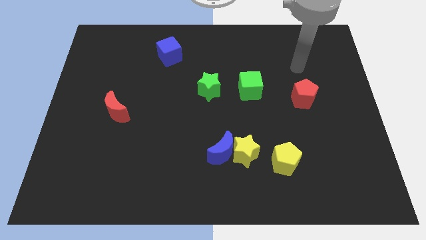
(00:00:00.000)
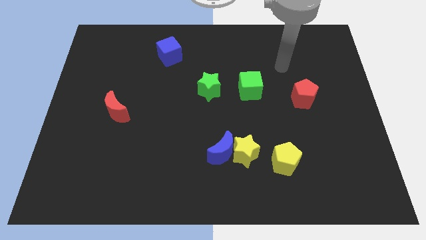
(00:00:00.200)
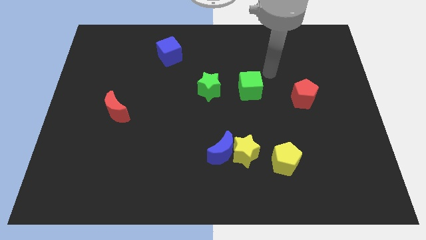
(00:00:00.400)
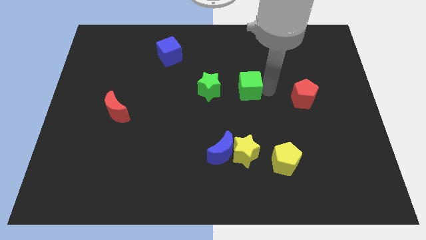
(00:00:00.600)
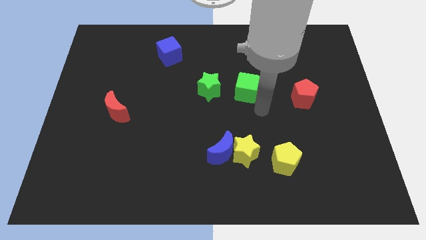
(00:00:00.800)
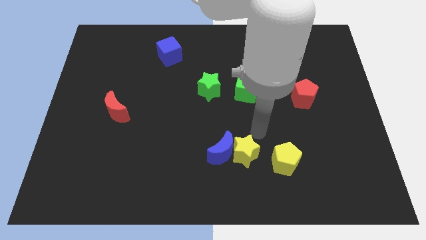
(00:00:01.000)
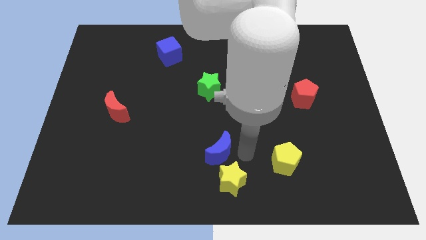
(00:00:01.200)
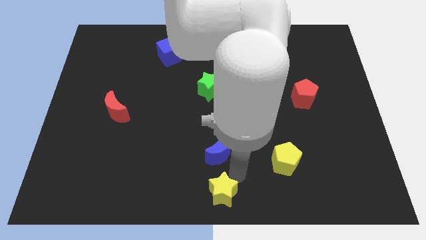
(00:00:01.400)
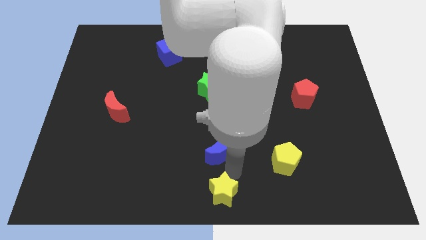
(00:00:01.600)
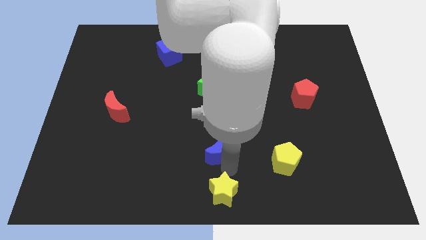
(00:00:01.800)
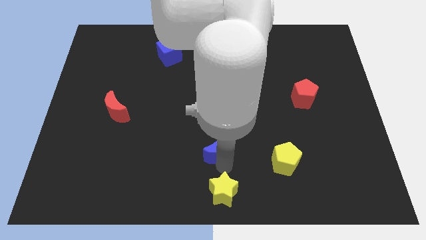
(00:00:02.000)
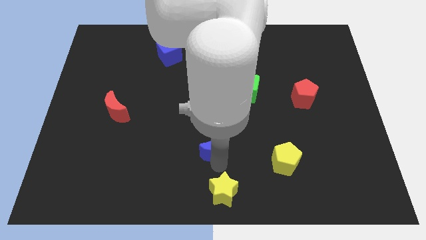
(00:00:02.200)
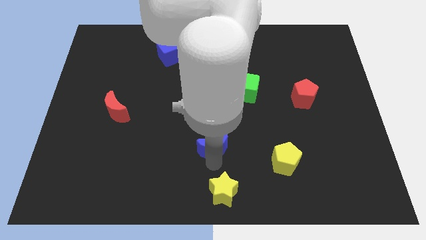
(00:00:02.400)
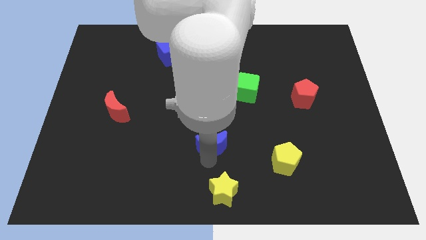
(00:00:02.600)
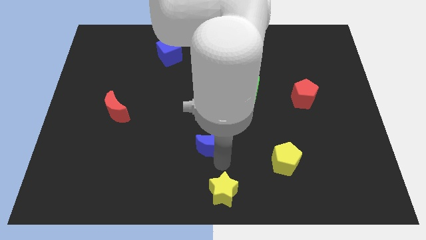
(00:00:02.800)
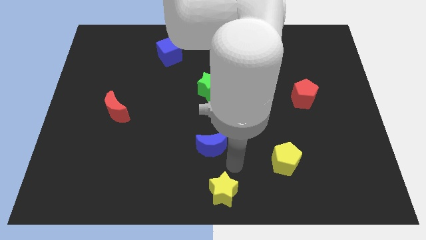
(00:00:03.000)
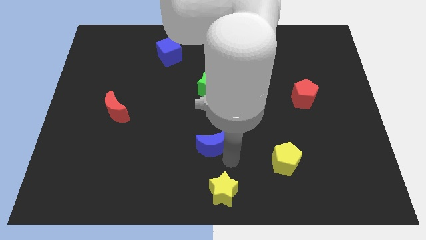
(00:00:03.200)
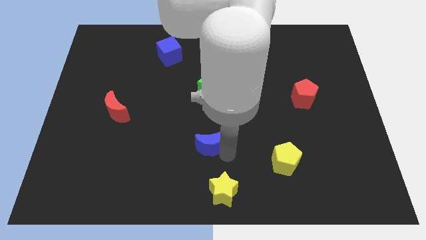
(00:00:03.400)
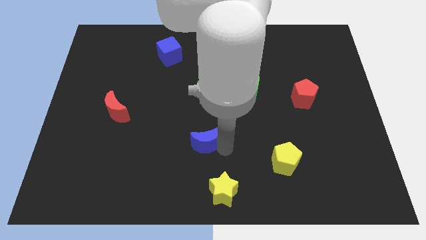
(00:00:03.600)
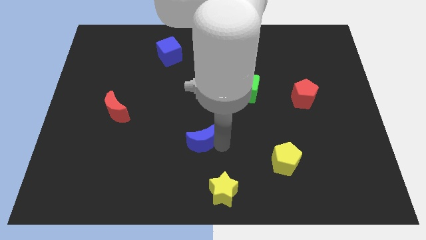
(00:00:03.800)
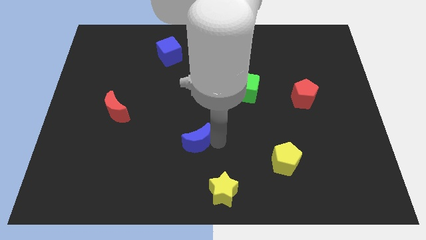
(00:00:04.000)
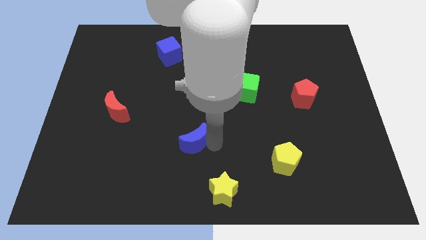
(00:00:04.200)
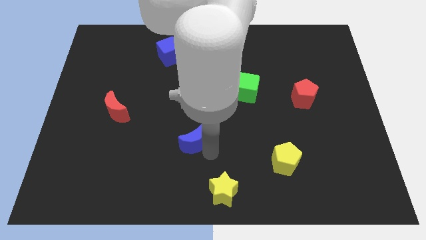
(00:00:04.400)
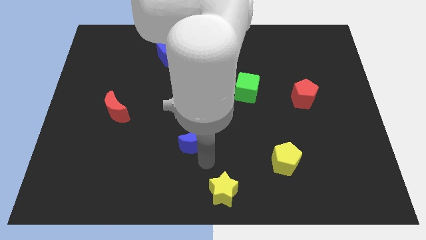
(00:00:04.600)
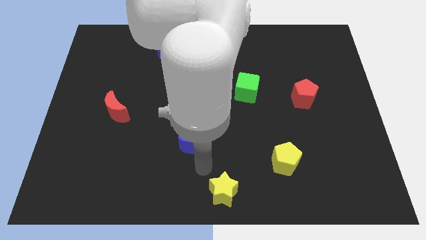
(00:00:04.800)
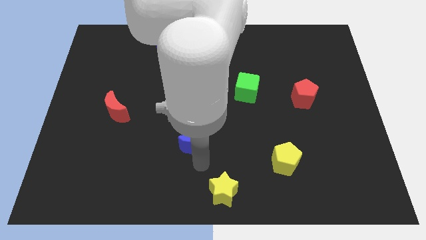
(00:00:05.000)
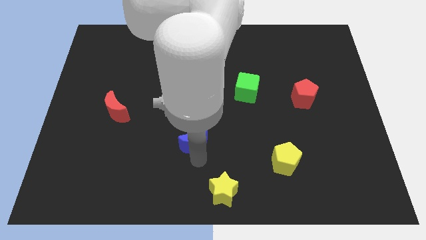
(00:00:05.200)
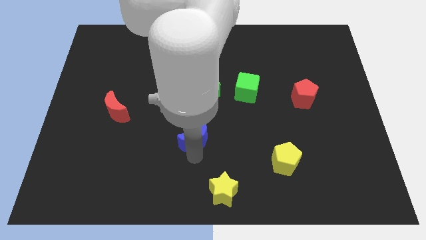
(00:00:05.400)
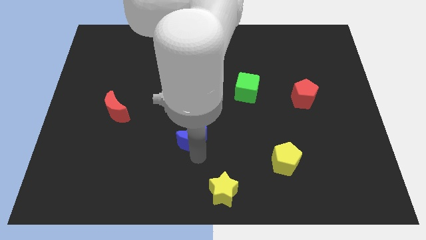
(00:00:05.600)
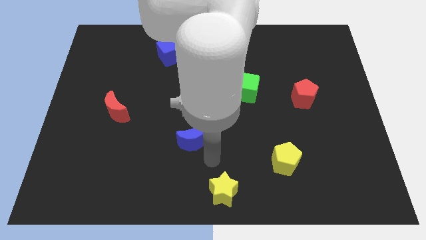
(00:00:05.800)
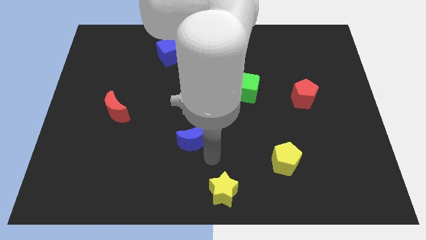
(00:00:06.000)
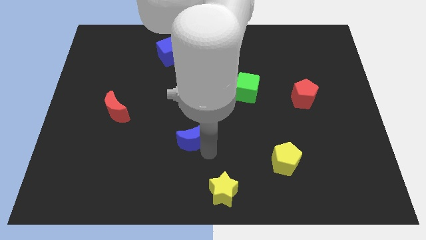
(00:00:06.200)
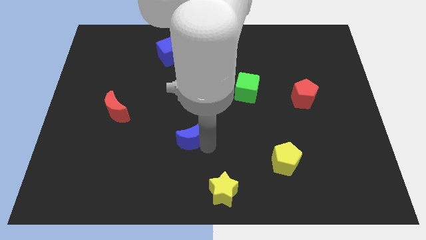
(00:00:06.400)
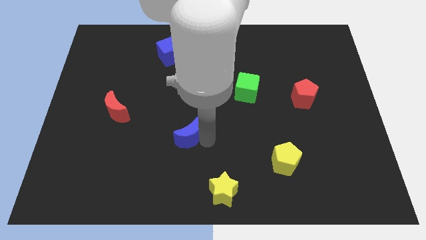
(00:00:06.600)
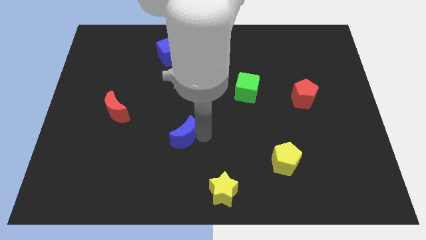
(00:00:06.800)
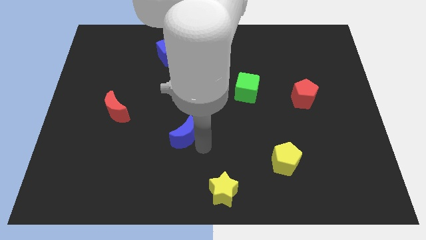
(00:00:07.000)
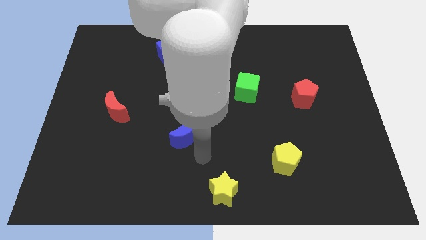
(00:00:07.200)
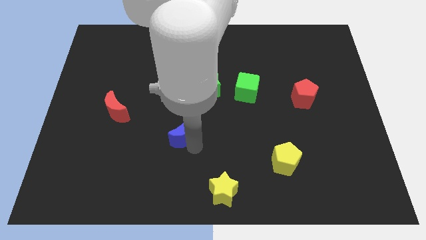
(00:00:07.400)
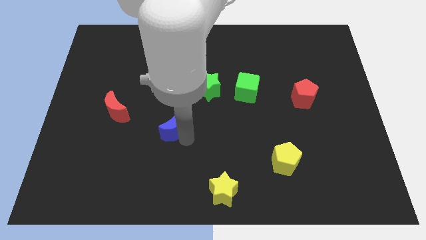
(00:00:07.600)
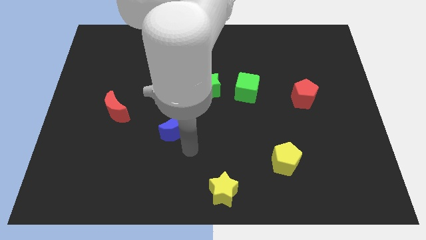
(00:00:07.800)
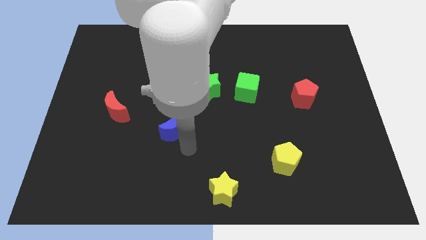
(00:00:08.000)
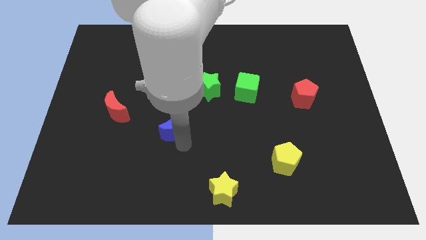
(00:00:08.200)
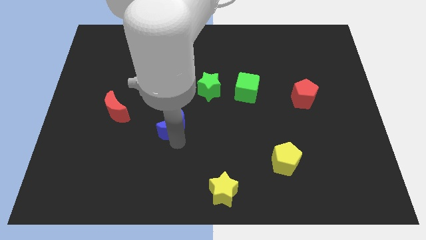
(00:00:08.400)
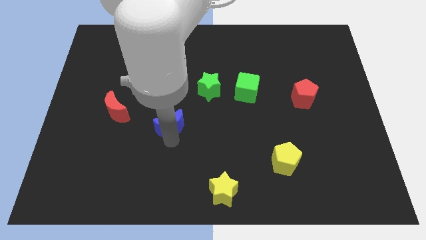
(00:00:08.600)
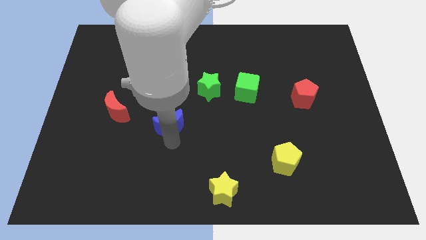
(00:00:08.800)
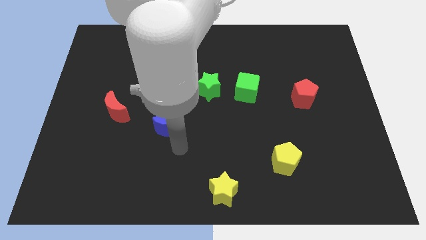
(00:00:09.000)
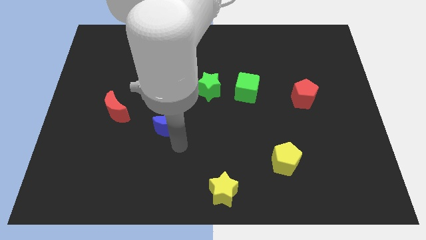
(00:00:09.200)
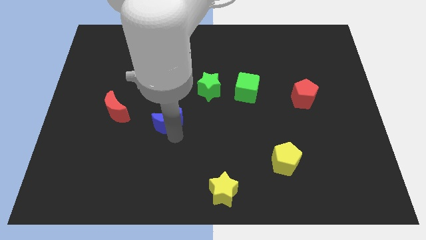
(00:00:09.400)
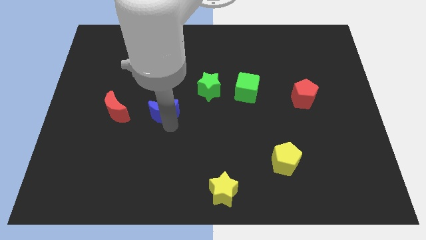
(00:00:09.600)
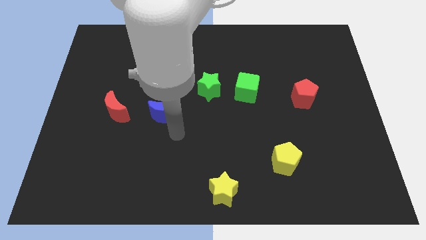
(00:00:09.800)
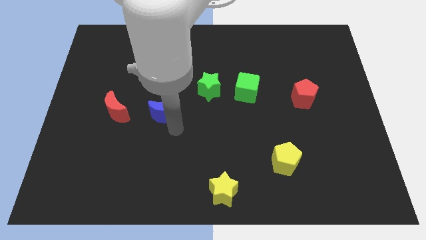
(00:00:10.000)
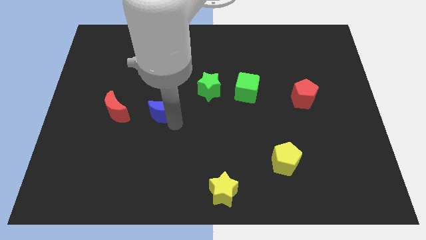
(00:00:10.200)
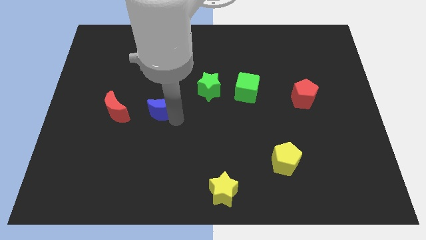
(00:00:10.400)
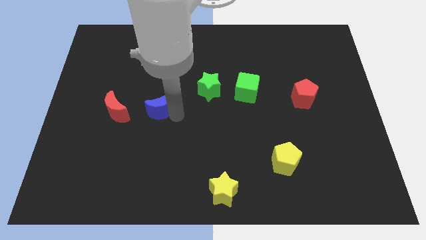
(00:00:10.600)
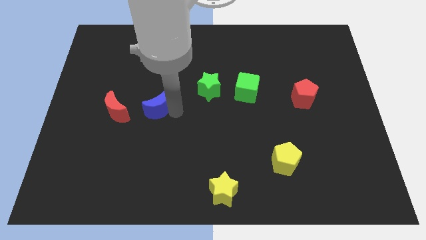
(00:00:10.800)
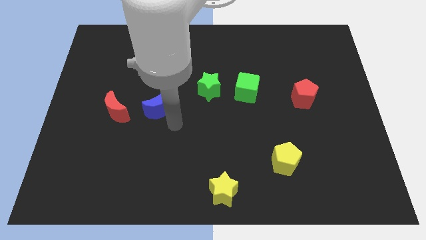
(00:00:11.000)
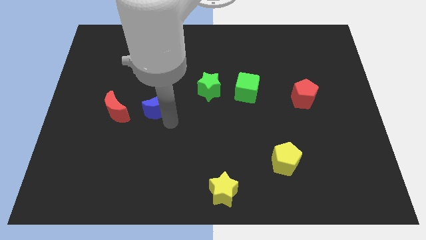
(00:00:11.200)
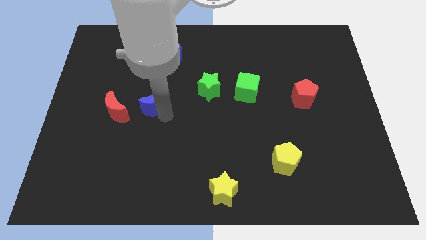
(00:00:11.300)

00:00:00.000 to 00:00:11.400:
move the blue moon upwards and to the left diagonally

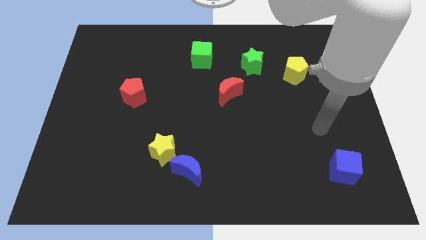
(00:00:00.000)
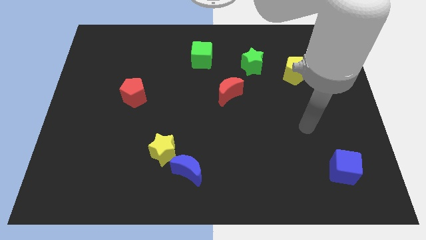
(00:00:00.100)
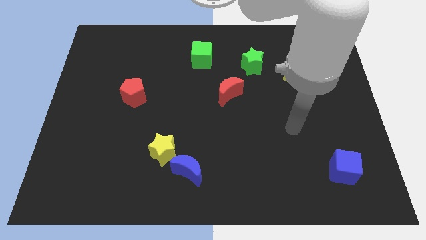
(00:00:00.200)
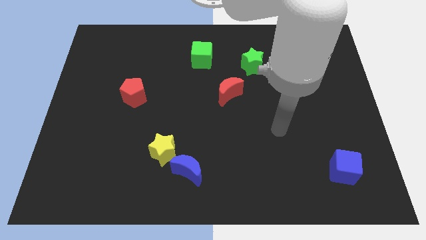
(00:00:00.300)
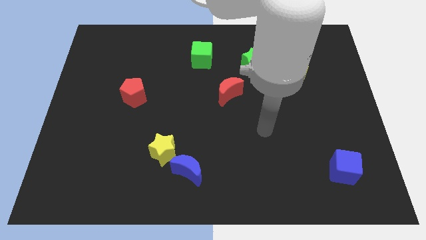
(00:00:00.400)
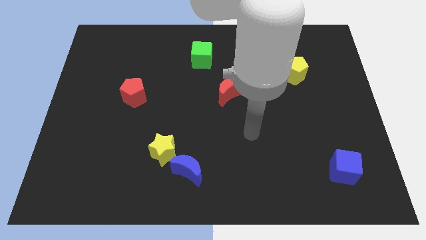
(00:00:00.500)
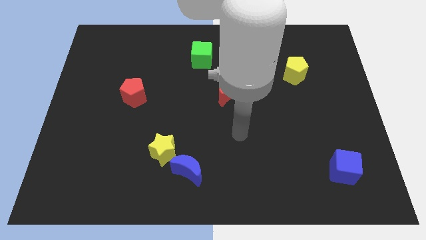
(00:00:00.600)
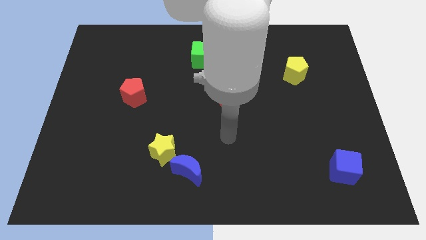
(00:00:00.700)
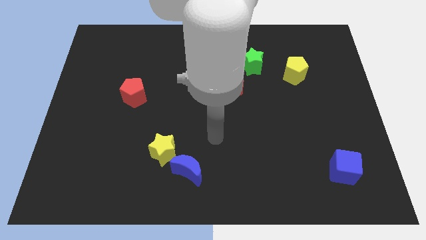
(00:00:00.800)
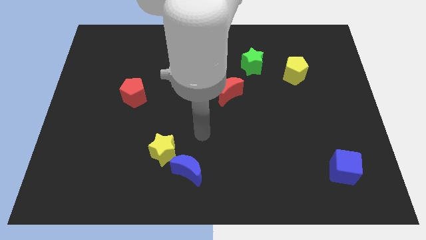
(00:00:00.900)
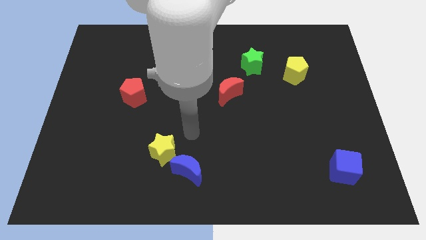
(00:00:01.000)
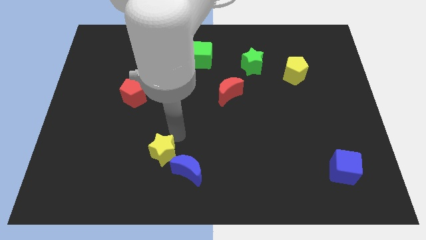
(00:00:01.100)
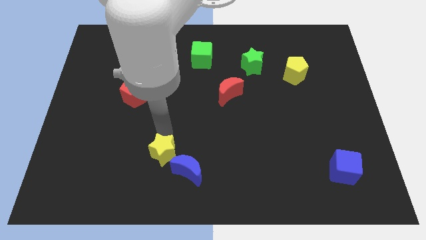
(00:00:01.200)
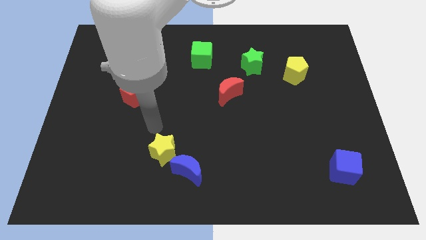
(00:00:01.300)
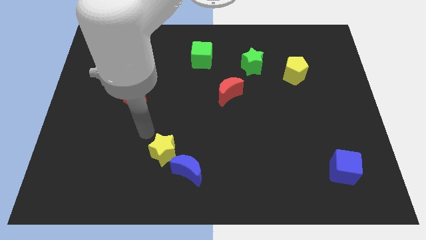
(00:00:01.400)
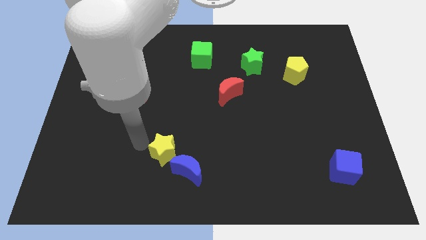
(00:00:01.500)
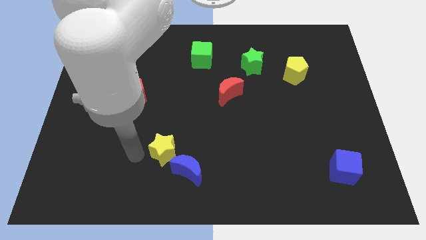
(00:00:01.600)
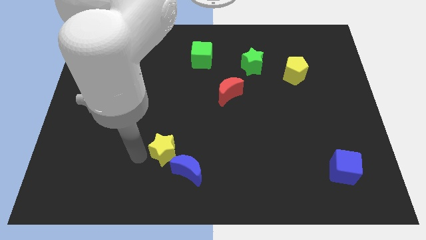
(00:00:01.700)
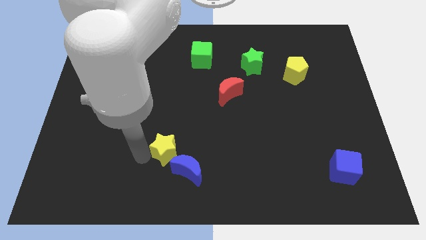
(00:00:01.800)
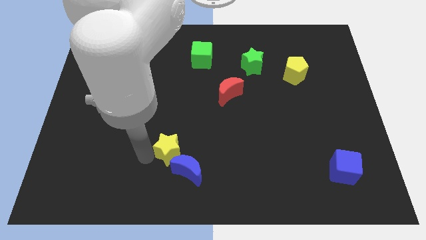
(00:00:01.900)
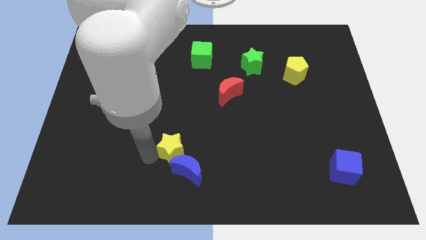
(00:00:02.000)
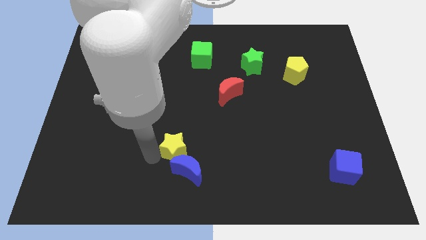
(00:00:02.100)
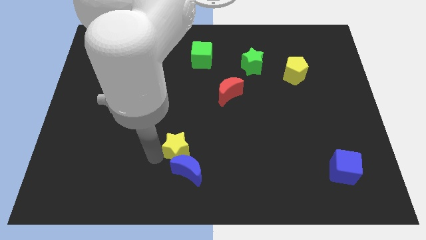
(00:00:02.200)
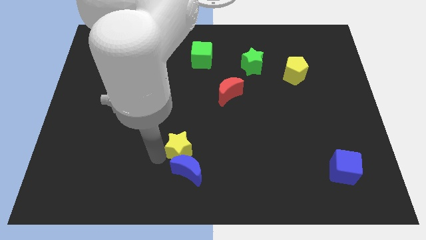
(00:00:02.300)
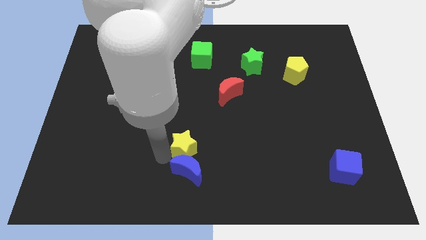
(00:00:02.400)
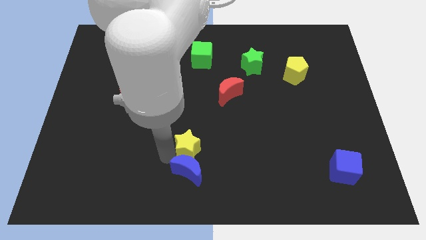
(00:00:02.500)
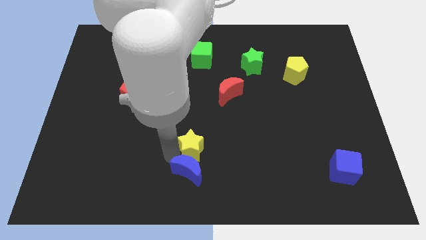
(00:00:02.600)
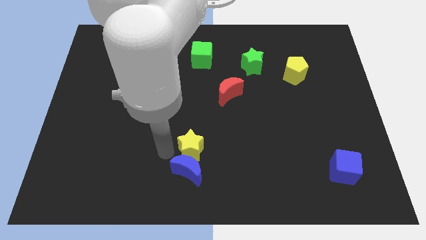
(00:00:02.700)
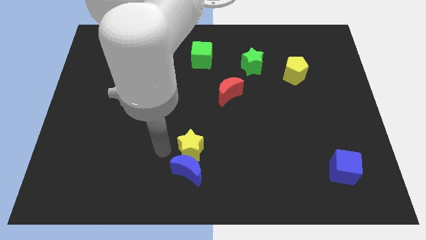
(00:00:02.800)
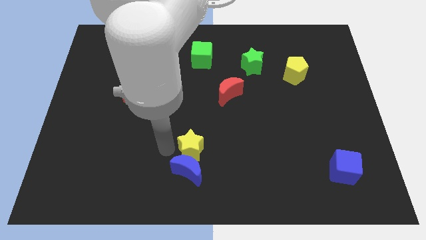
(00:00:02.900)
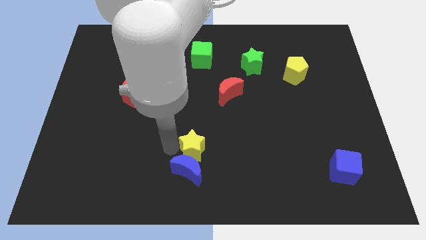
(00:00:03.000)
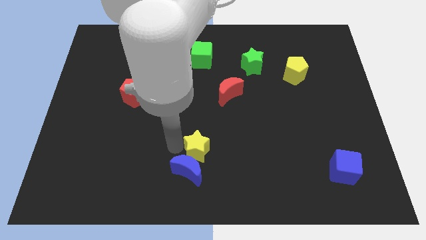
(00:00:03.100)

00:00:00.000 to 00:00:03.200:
push the yellow star slightly right
